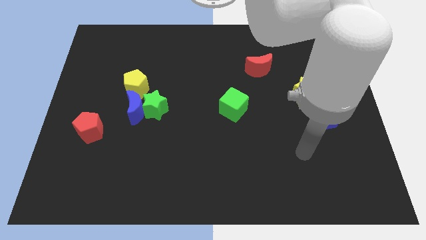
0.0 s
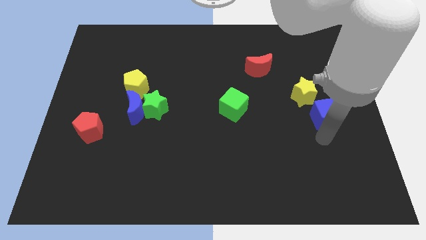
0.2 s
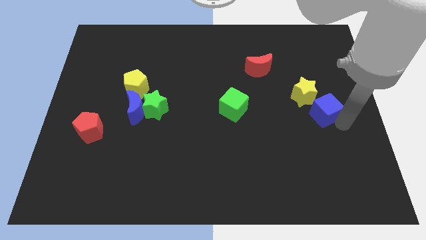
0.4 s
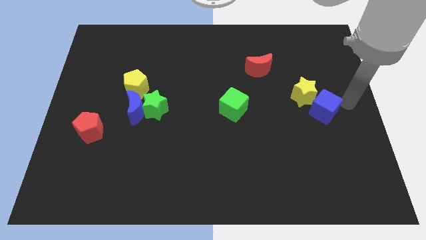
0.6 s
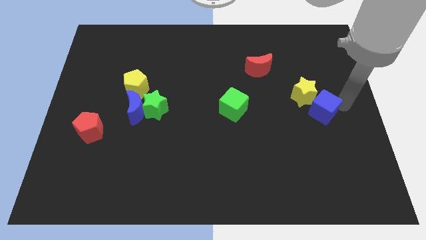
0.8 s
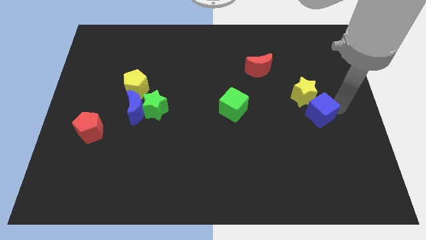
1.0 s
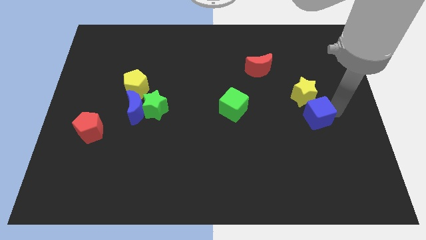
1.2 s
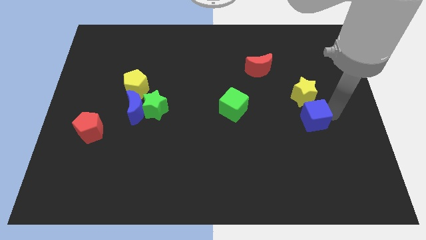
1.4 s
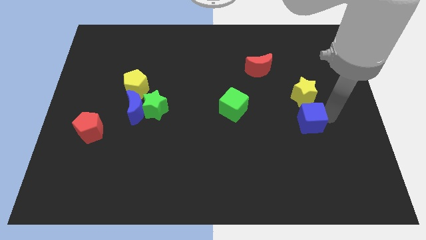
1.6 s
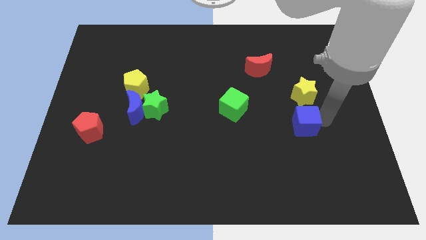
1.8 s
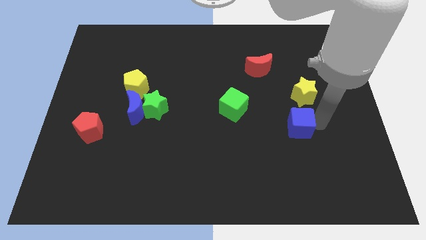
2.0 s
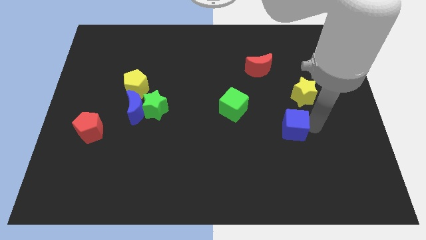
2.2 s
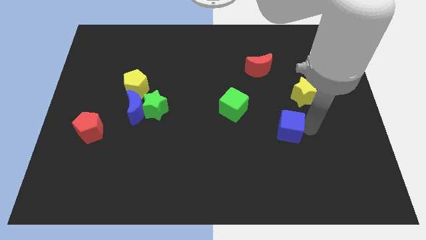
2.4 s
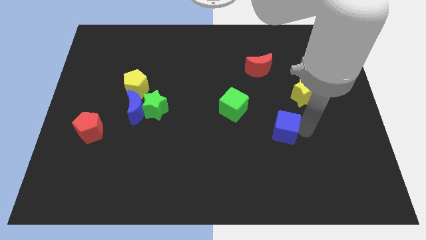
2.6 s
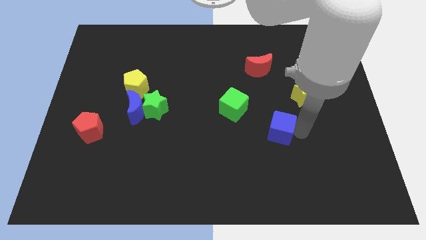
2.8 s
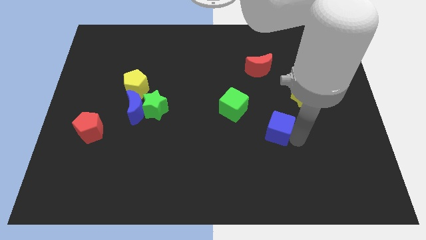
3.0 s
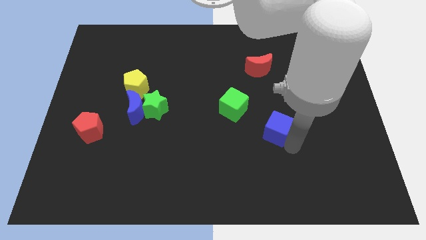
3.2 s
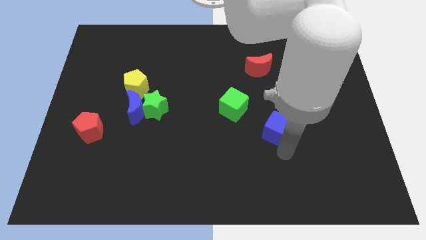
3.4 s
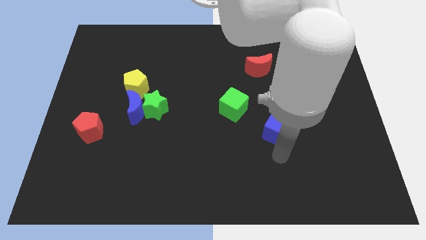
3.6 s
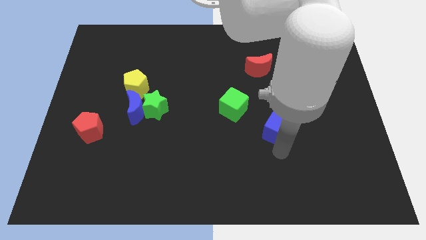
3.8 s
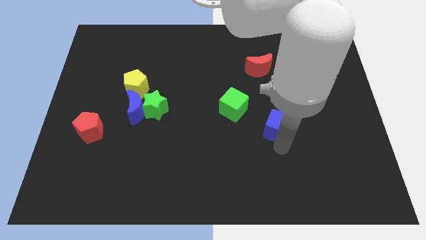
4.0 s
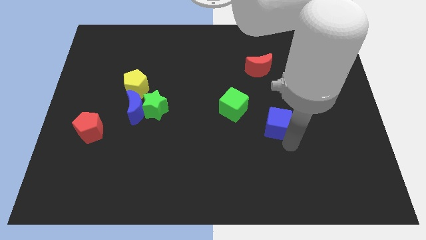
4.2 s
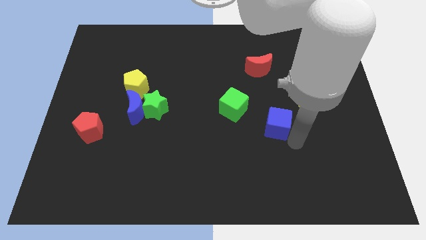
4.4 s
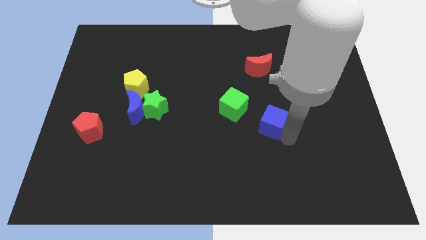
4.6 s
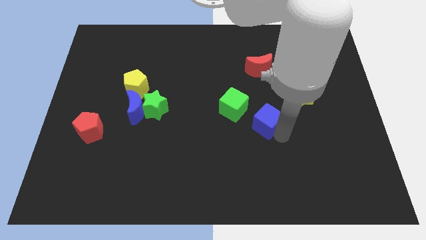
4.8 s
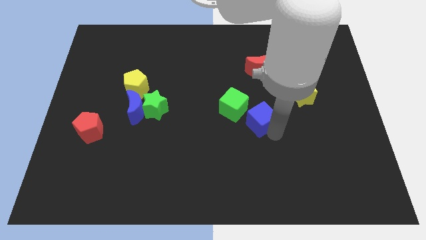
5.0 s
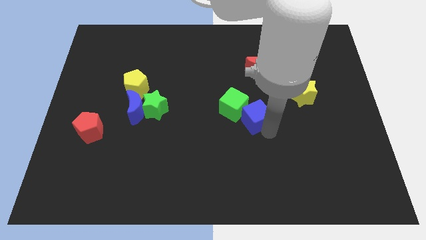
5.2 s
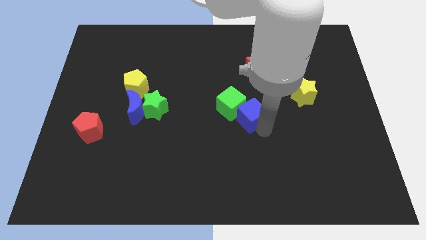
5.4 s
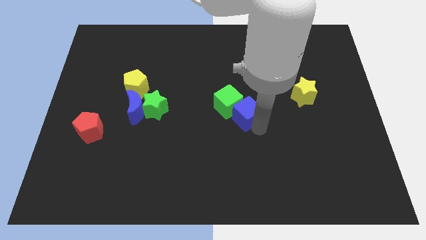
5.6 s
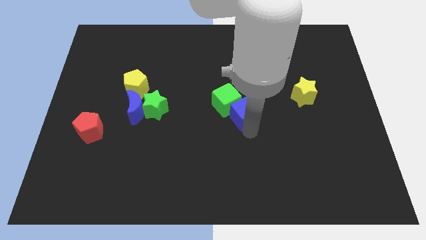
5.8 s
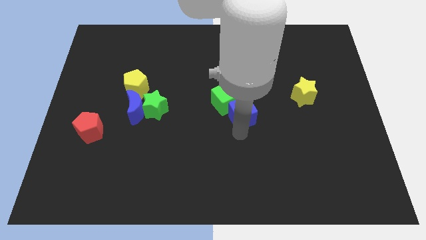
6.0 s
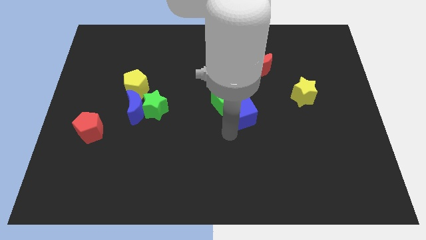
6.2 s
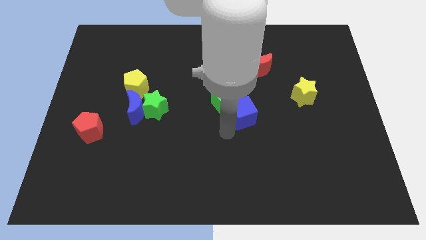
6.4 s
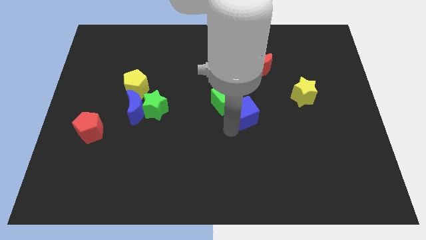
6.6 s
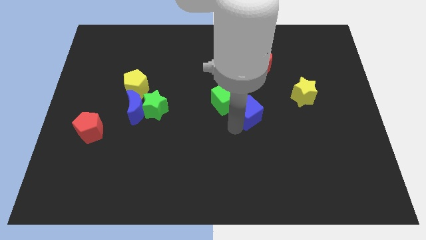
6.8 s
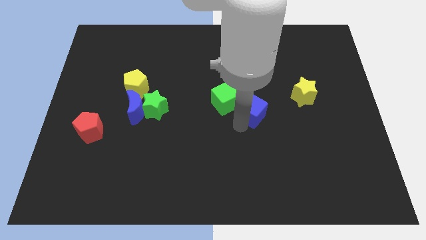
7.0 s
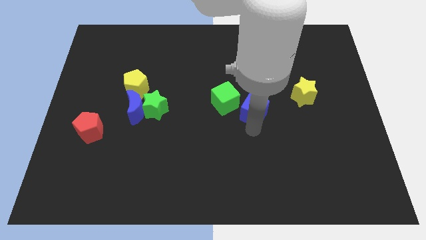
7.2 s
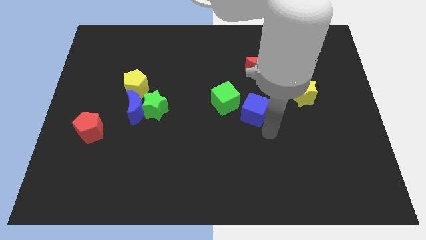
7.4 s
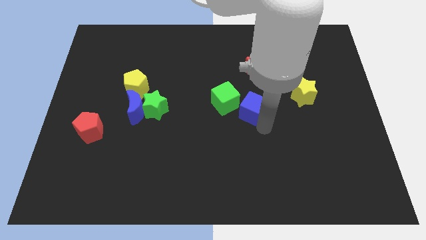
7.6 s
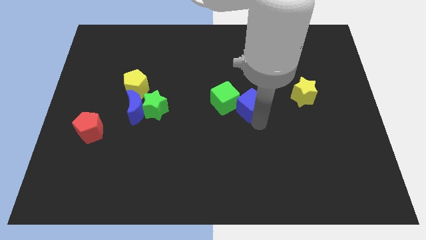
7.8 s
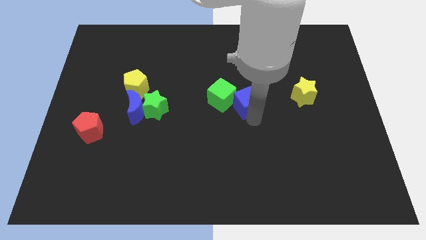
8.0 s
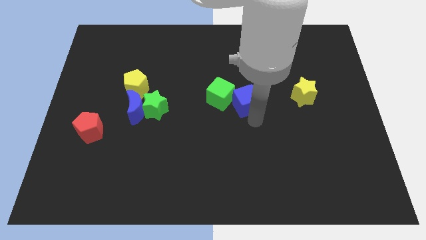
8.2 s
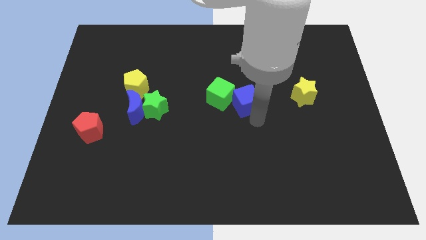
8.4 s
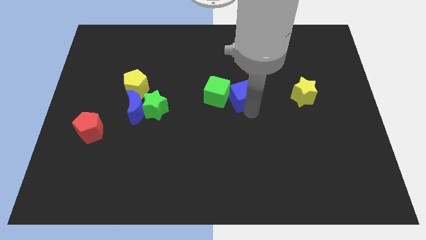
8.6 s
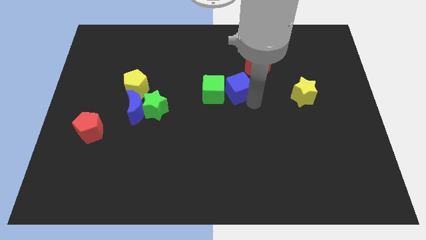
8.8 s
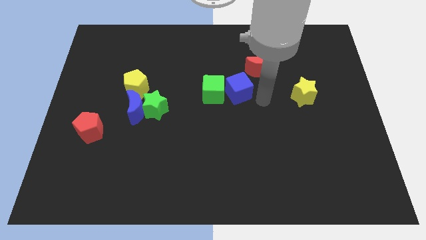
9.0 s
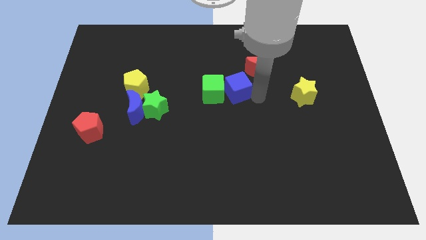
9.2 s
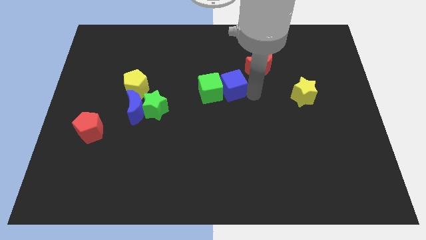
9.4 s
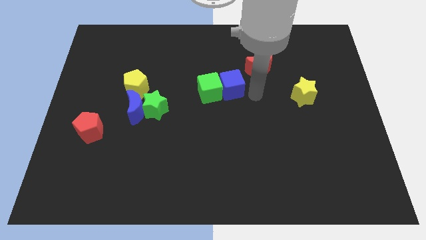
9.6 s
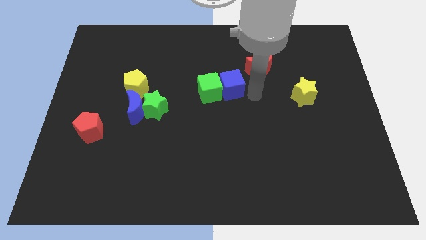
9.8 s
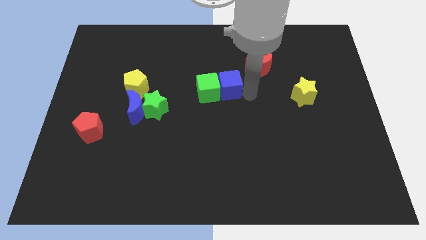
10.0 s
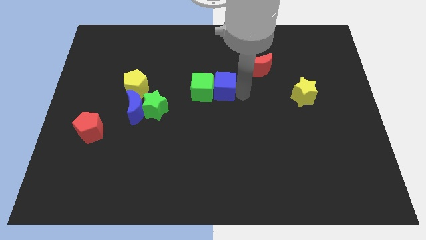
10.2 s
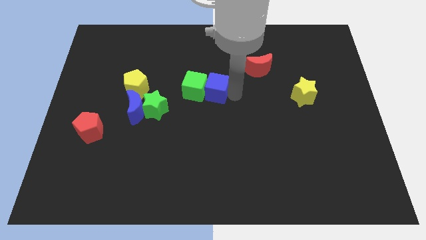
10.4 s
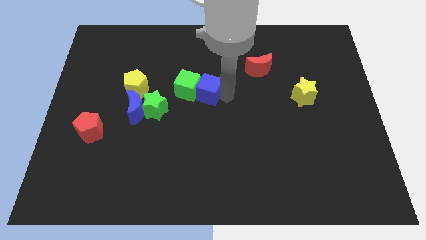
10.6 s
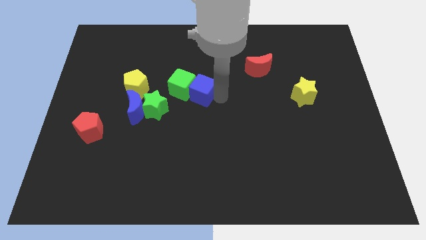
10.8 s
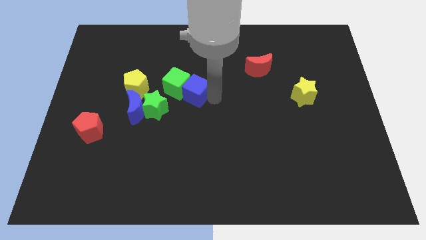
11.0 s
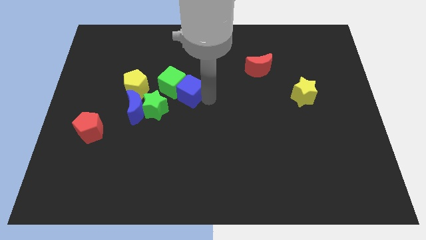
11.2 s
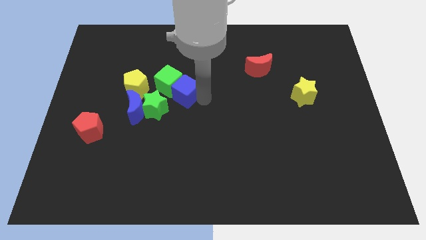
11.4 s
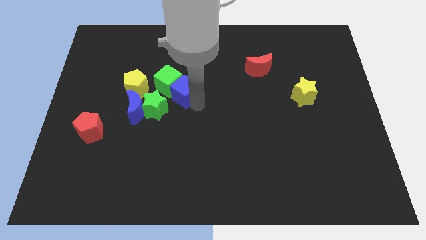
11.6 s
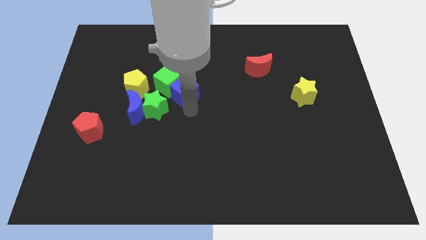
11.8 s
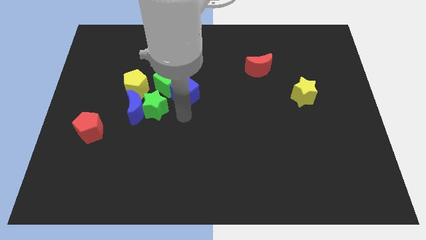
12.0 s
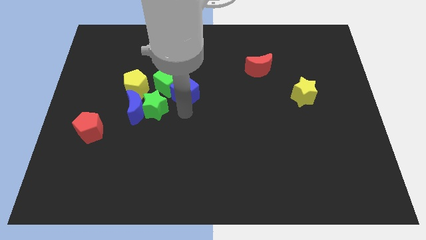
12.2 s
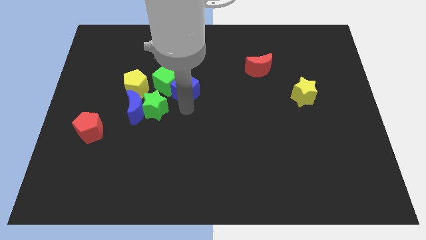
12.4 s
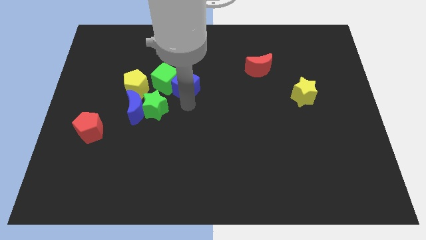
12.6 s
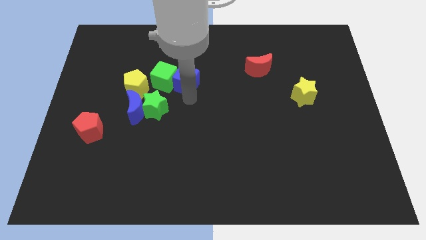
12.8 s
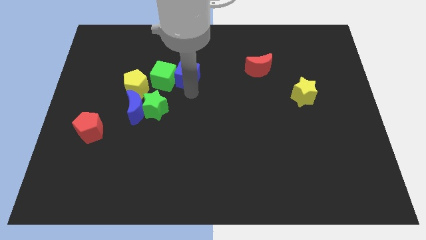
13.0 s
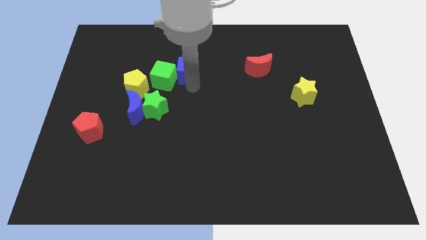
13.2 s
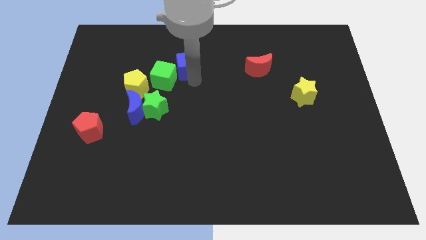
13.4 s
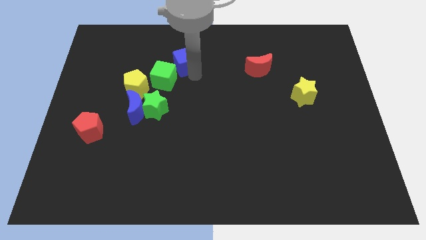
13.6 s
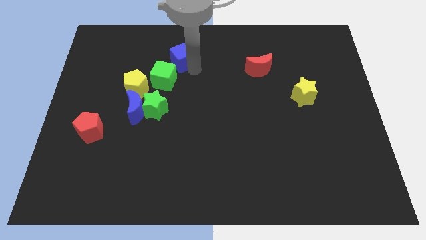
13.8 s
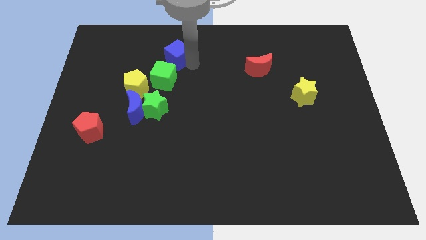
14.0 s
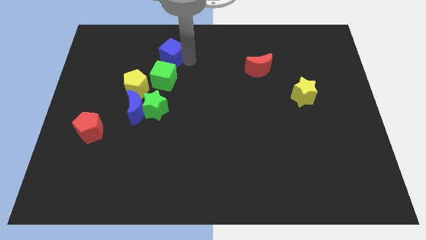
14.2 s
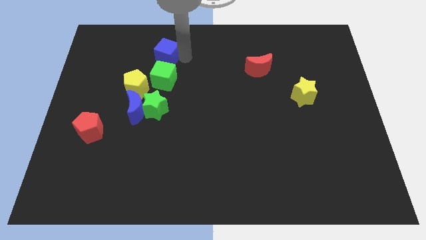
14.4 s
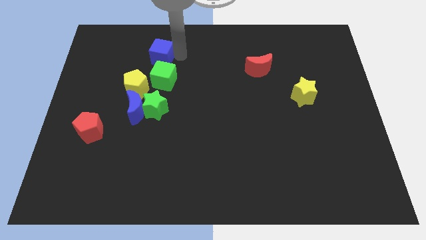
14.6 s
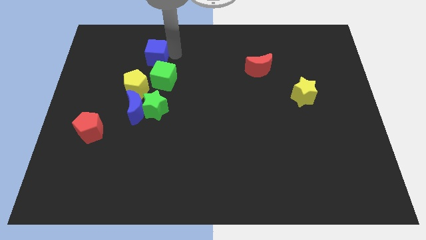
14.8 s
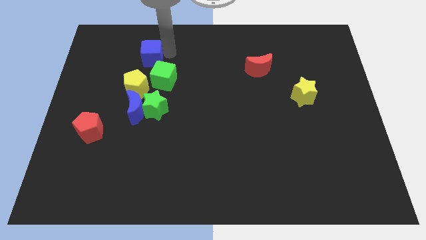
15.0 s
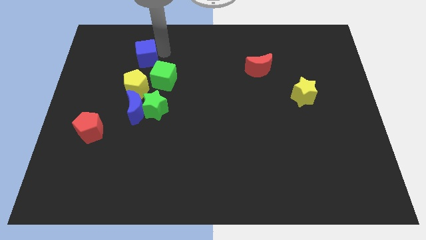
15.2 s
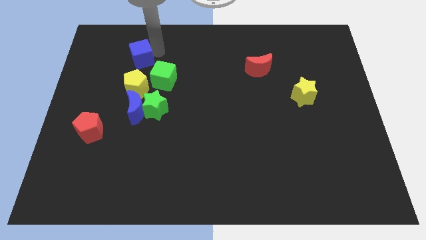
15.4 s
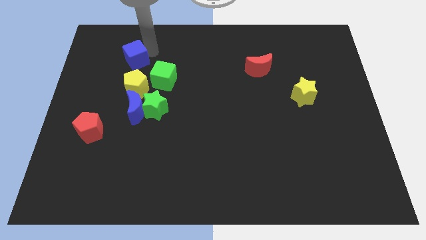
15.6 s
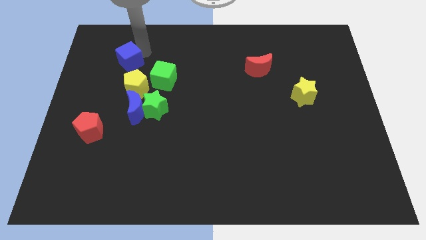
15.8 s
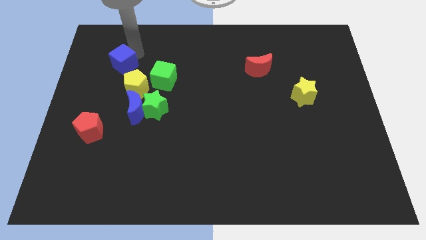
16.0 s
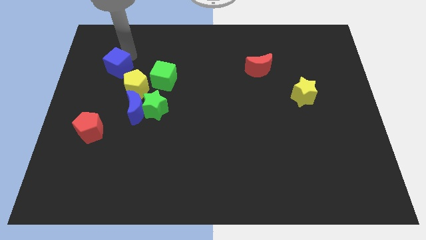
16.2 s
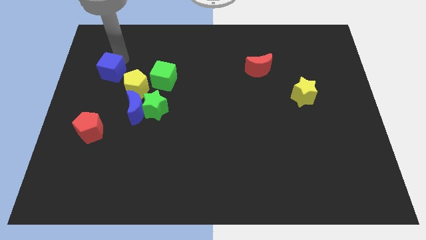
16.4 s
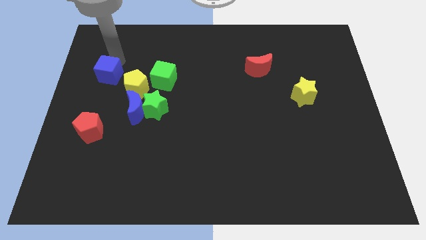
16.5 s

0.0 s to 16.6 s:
move the blue cube just left of the yellow pentagon
